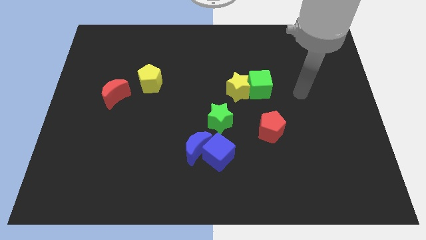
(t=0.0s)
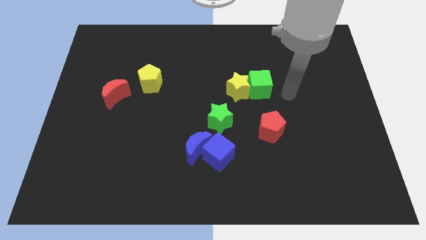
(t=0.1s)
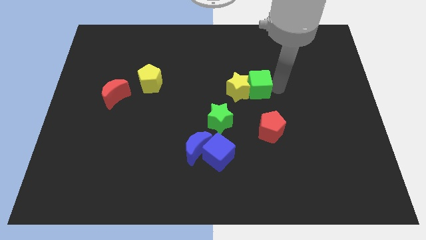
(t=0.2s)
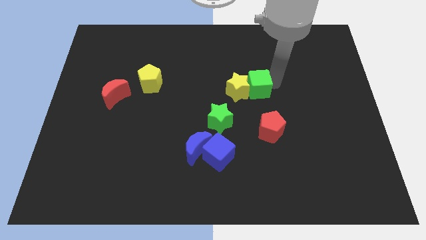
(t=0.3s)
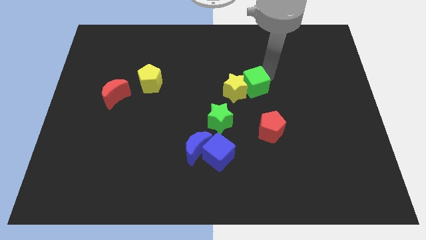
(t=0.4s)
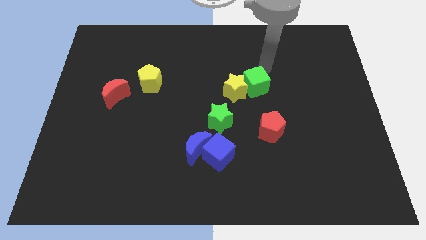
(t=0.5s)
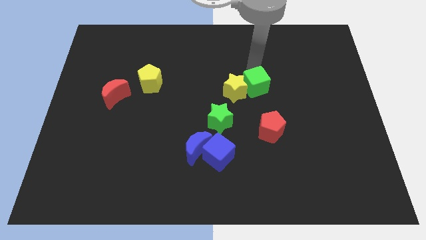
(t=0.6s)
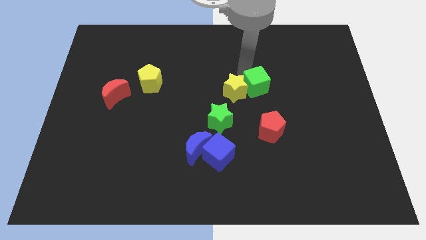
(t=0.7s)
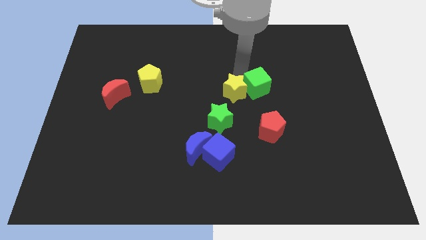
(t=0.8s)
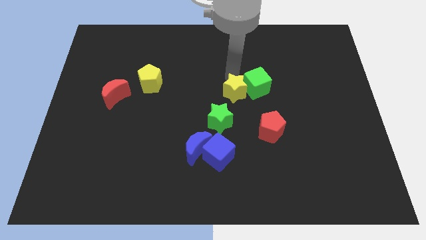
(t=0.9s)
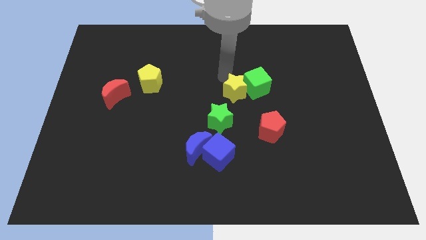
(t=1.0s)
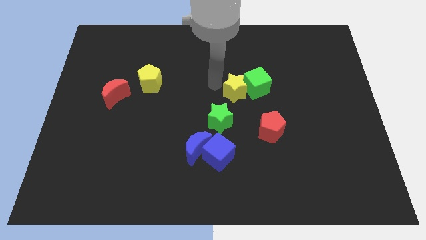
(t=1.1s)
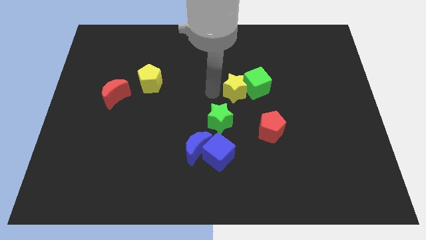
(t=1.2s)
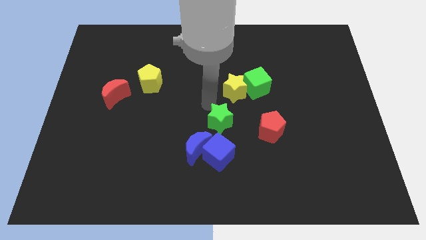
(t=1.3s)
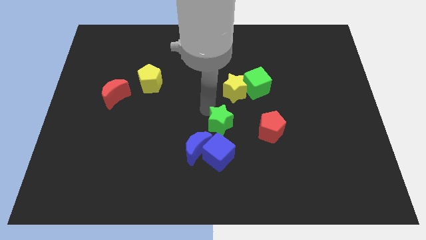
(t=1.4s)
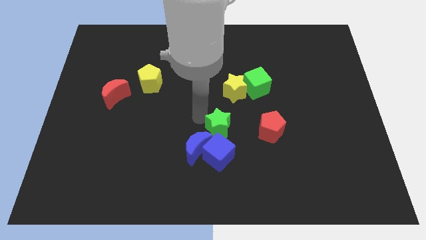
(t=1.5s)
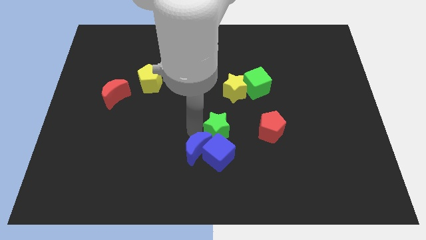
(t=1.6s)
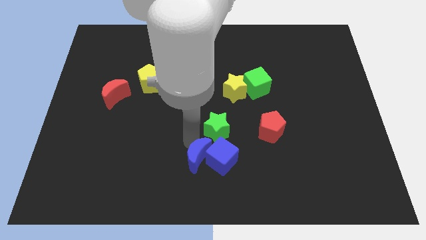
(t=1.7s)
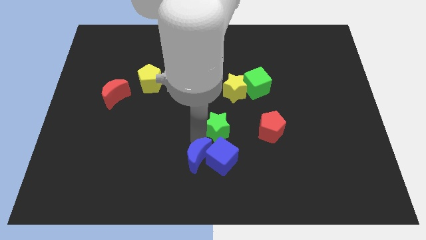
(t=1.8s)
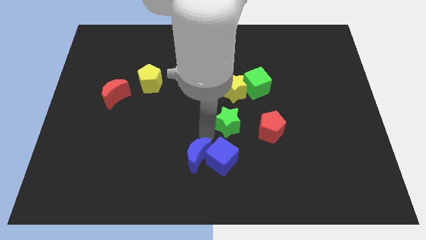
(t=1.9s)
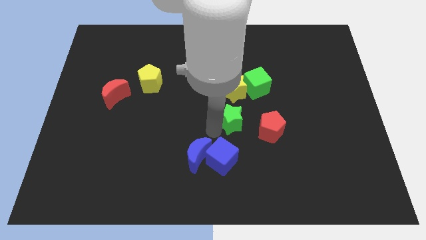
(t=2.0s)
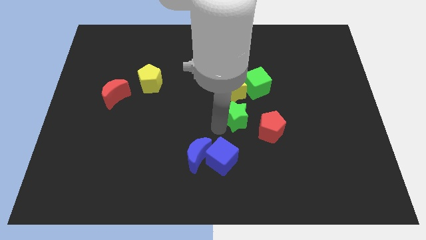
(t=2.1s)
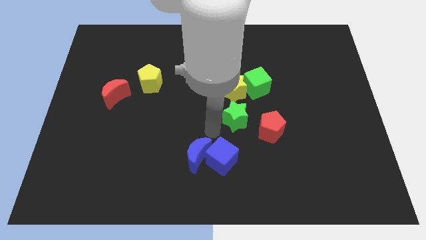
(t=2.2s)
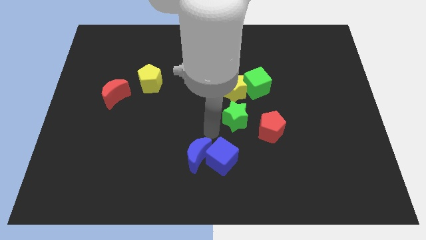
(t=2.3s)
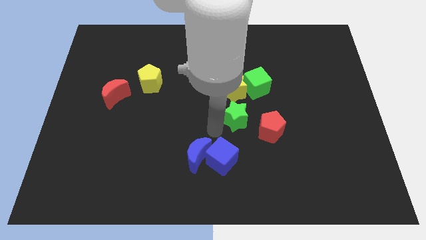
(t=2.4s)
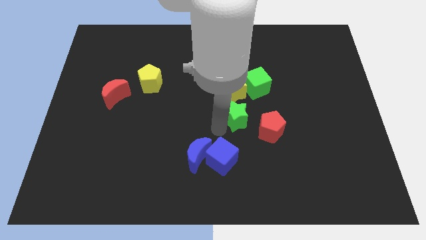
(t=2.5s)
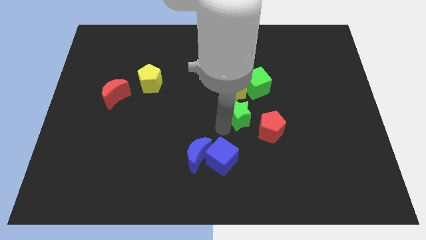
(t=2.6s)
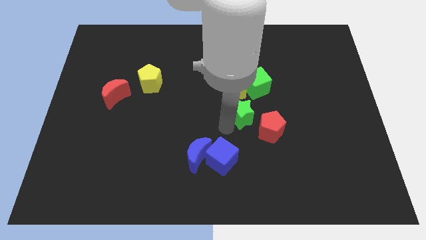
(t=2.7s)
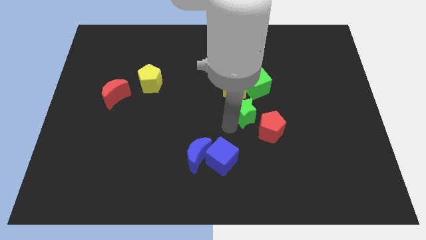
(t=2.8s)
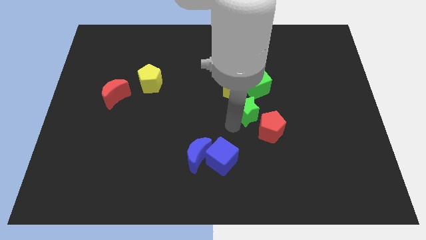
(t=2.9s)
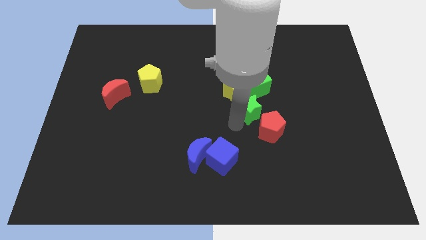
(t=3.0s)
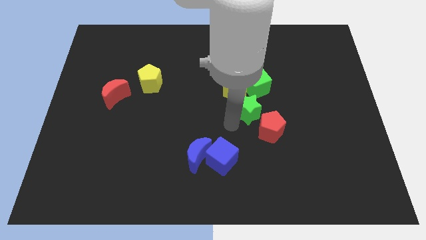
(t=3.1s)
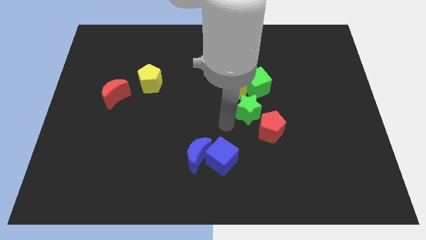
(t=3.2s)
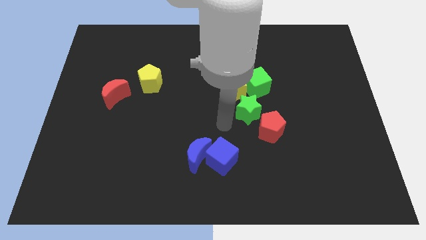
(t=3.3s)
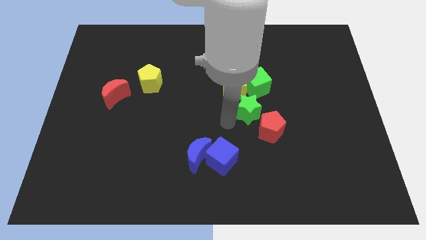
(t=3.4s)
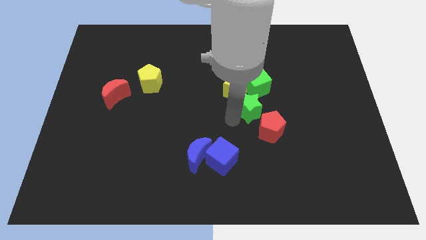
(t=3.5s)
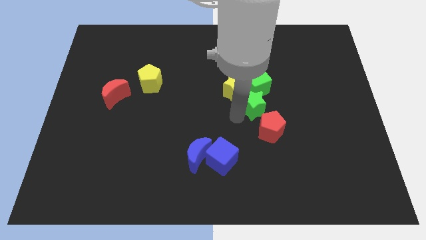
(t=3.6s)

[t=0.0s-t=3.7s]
slightly move the green star diagonally upwards and right

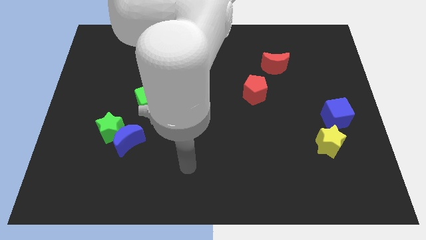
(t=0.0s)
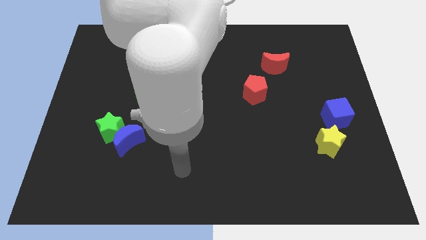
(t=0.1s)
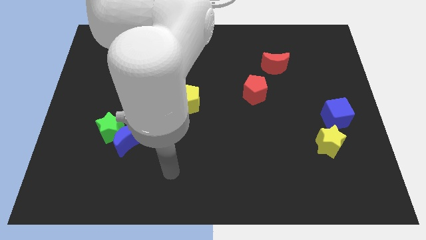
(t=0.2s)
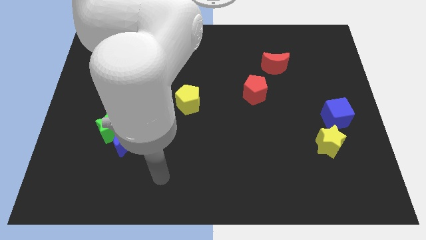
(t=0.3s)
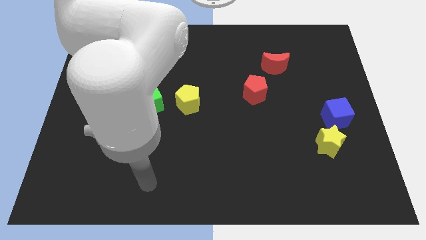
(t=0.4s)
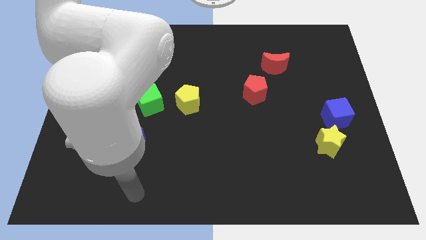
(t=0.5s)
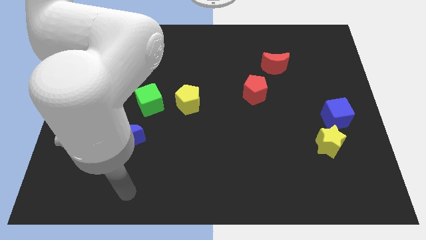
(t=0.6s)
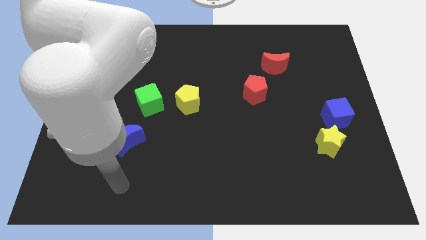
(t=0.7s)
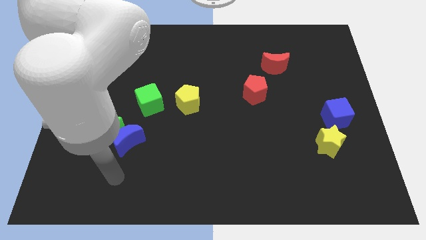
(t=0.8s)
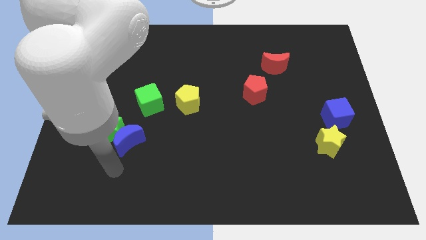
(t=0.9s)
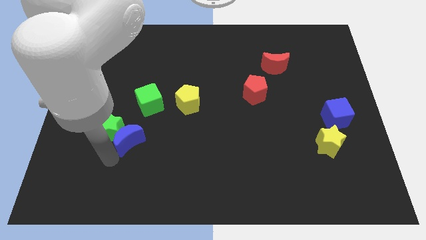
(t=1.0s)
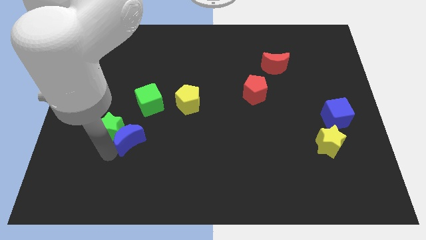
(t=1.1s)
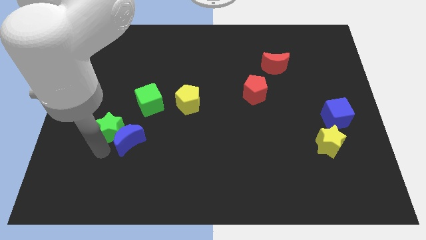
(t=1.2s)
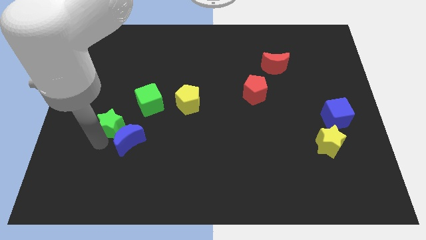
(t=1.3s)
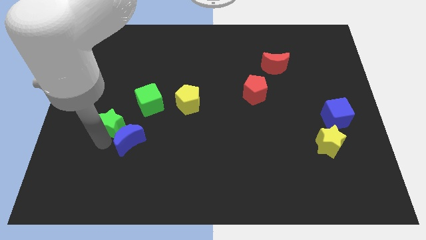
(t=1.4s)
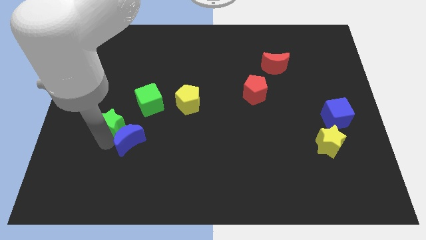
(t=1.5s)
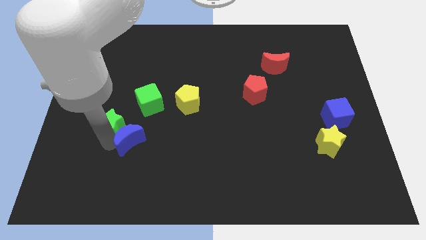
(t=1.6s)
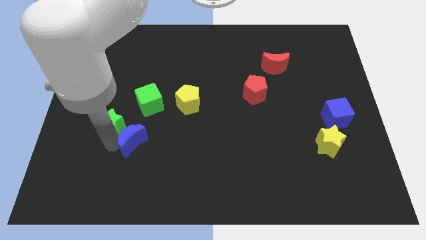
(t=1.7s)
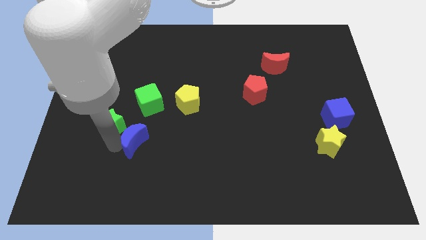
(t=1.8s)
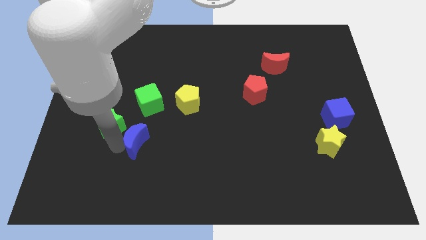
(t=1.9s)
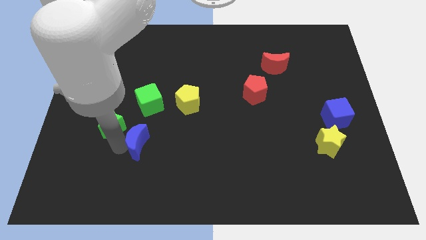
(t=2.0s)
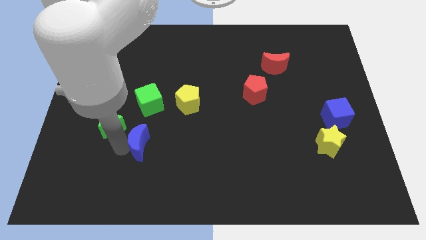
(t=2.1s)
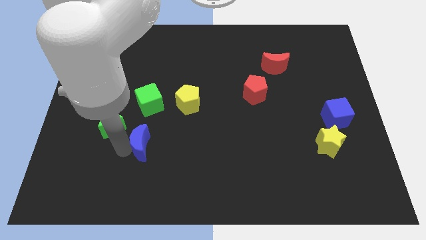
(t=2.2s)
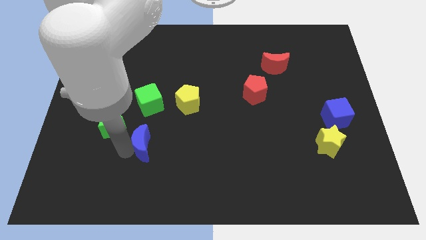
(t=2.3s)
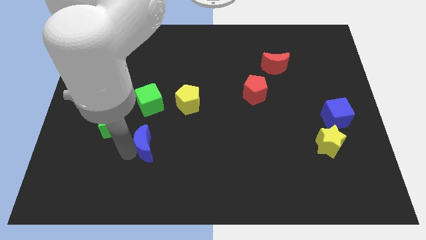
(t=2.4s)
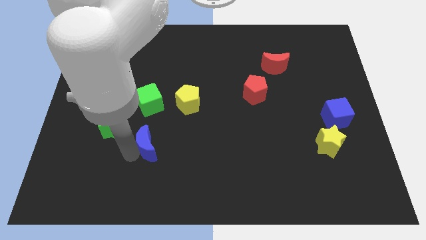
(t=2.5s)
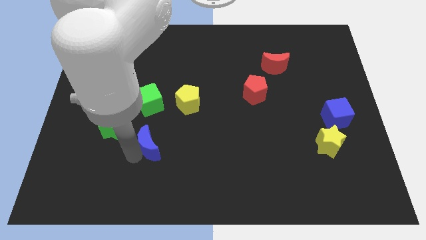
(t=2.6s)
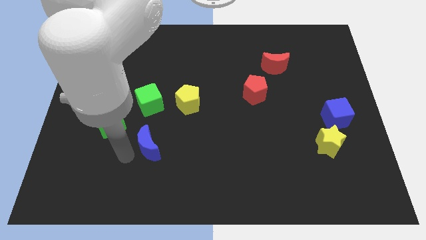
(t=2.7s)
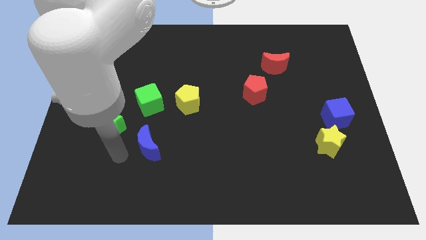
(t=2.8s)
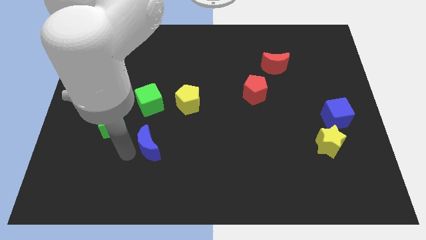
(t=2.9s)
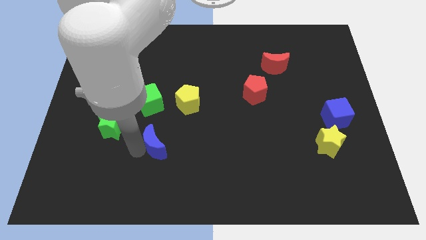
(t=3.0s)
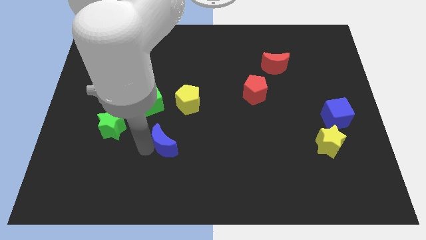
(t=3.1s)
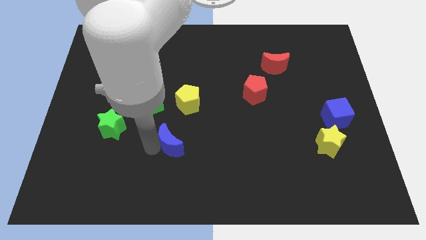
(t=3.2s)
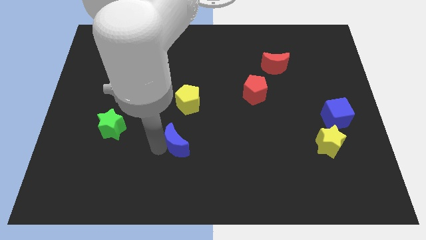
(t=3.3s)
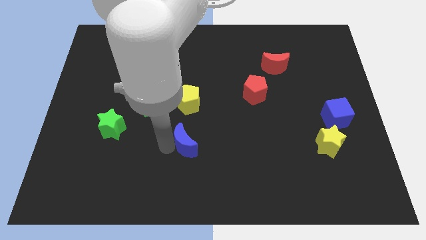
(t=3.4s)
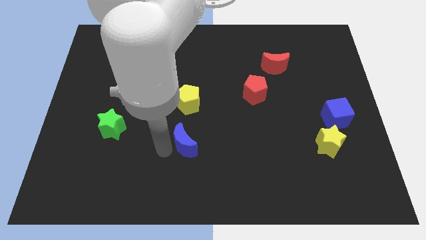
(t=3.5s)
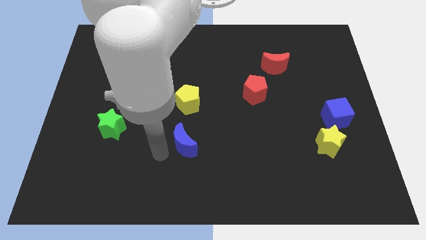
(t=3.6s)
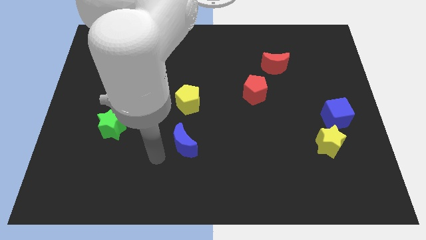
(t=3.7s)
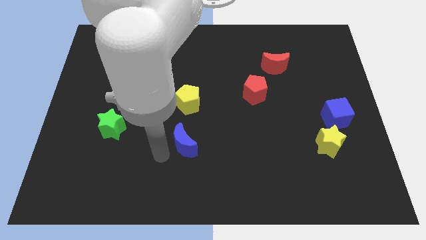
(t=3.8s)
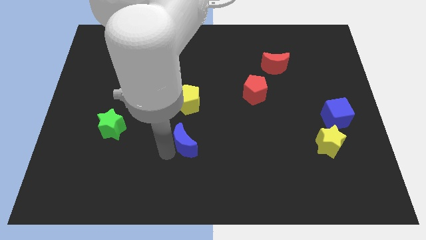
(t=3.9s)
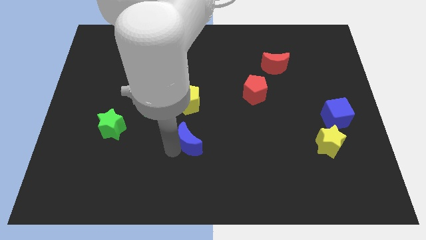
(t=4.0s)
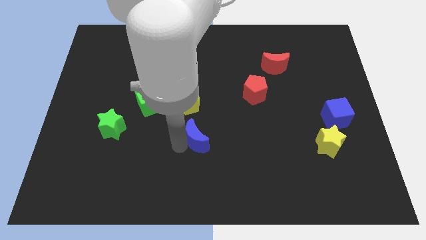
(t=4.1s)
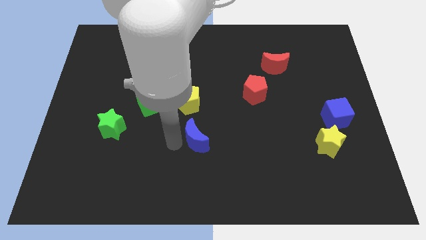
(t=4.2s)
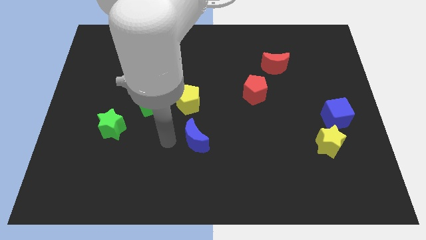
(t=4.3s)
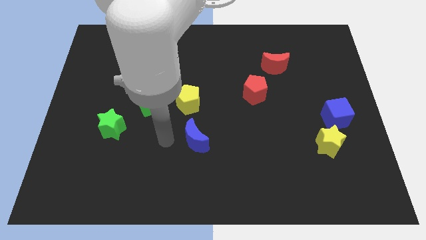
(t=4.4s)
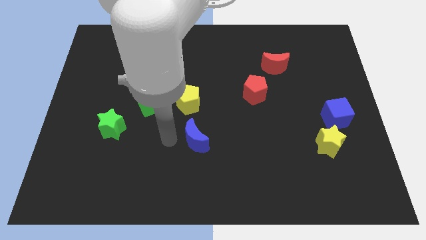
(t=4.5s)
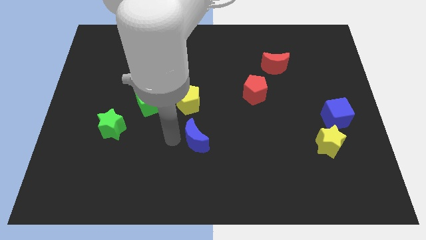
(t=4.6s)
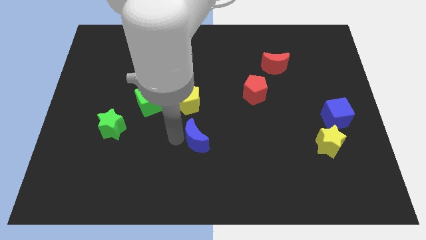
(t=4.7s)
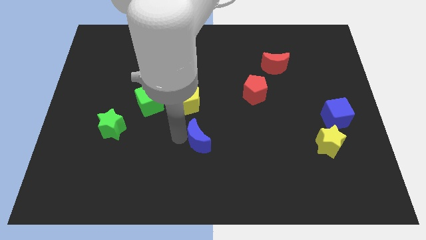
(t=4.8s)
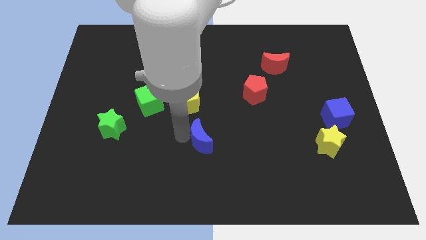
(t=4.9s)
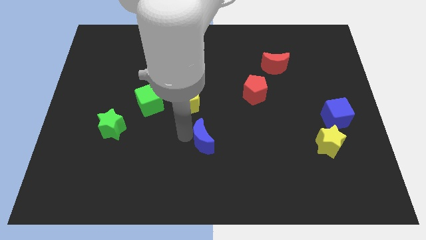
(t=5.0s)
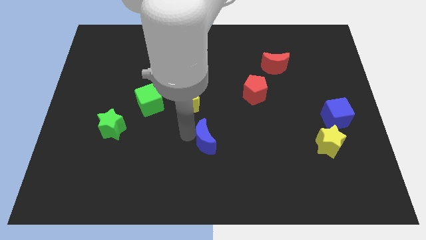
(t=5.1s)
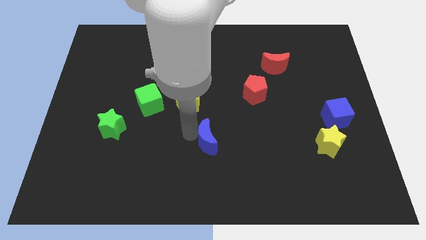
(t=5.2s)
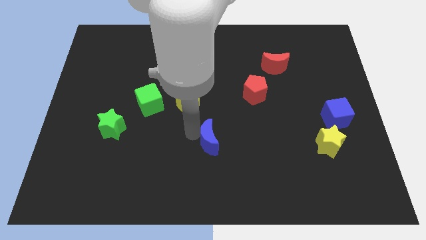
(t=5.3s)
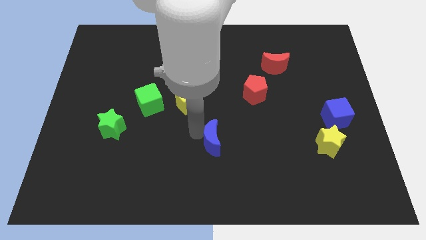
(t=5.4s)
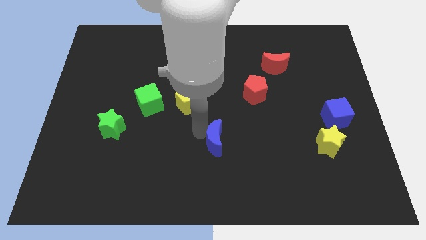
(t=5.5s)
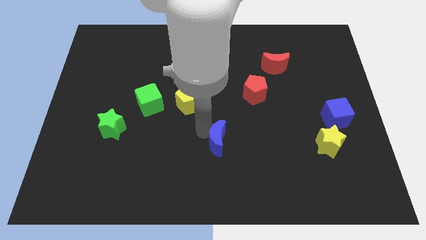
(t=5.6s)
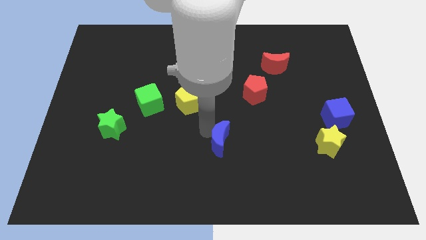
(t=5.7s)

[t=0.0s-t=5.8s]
slide the blue moon right
